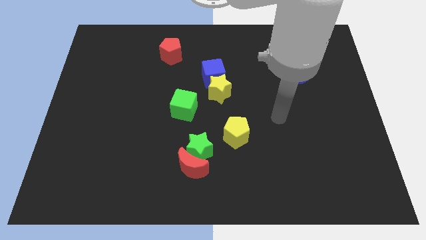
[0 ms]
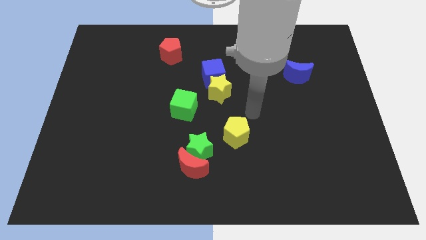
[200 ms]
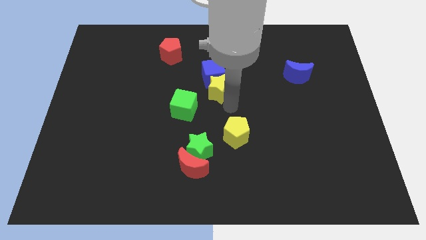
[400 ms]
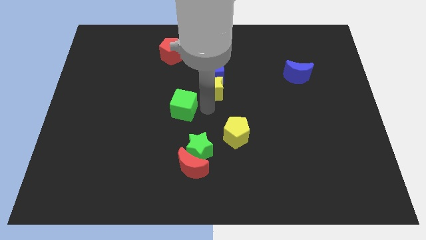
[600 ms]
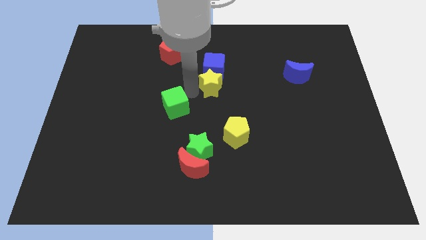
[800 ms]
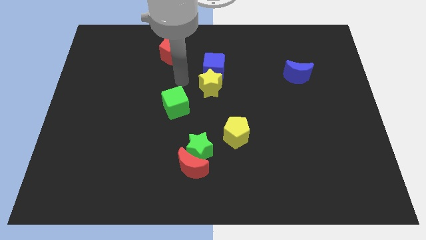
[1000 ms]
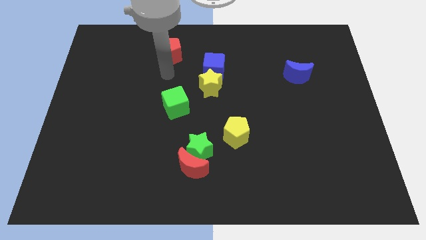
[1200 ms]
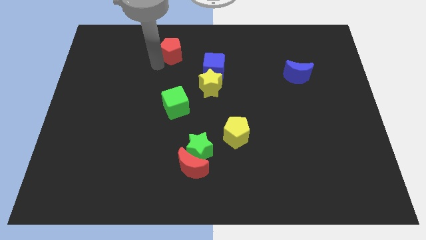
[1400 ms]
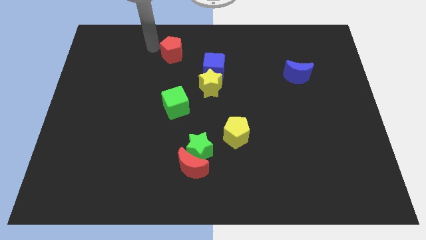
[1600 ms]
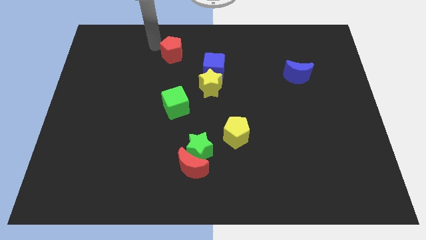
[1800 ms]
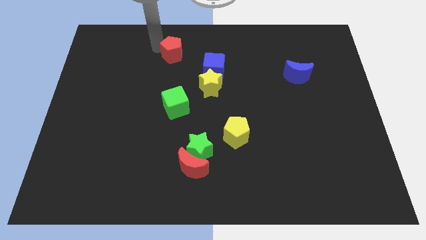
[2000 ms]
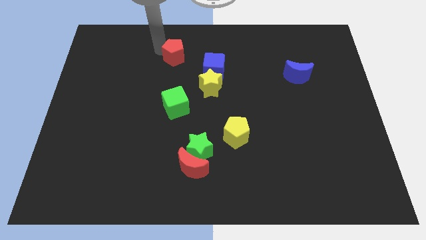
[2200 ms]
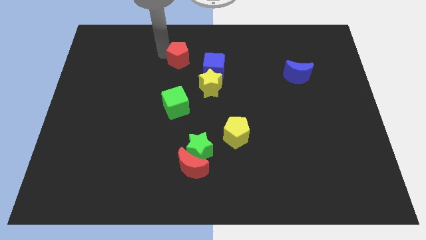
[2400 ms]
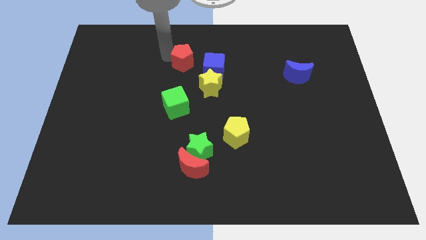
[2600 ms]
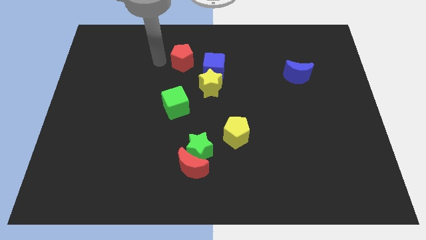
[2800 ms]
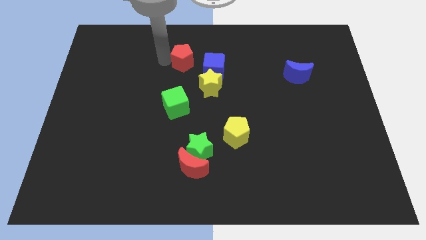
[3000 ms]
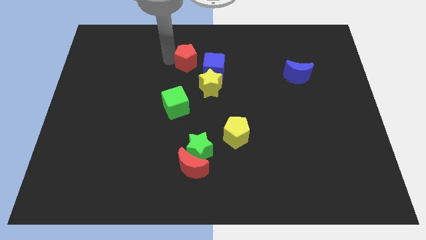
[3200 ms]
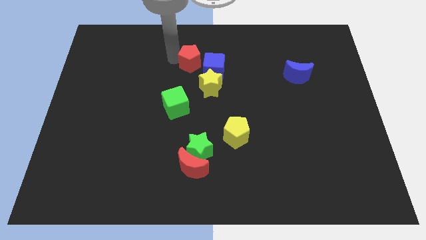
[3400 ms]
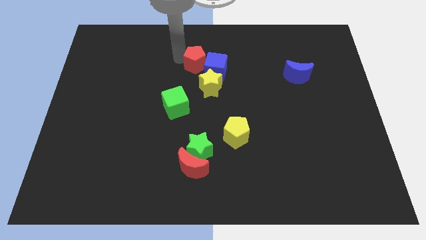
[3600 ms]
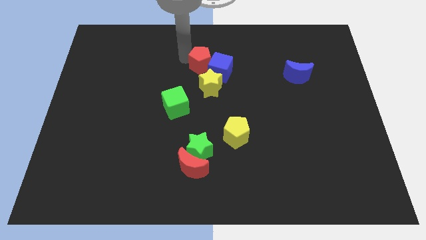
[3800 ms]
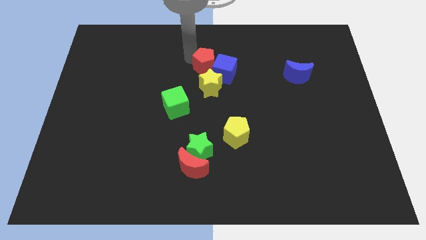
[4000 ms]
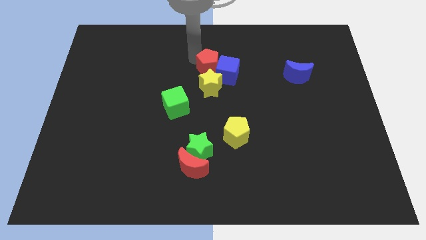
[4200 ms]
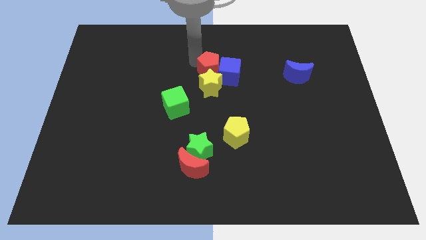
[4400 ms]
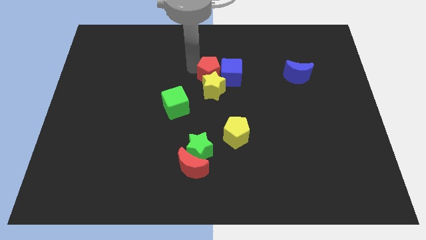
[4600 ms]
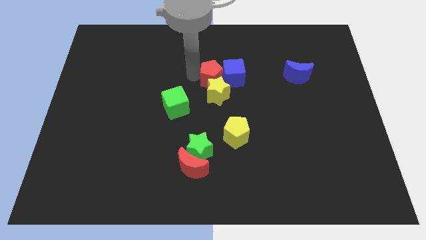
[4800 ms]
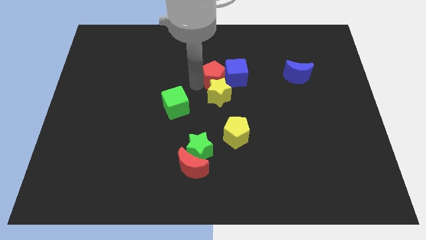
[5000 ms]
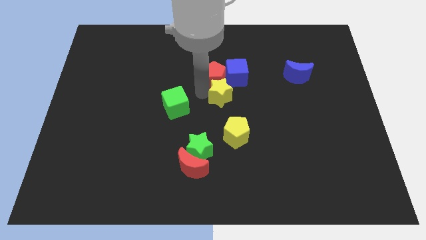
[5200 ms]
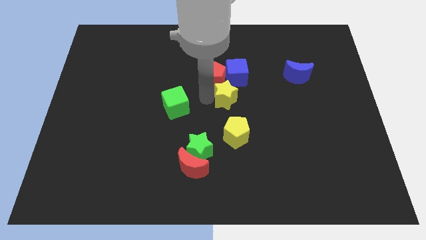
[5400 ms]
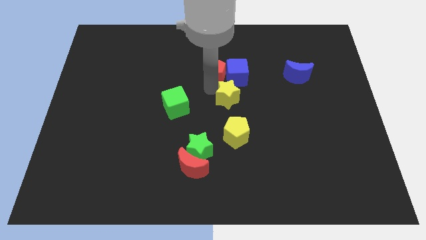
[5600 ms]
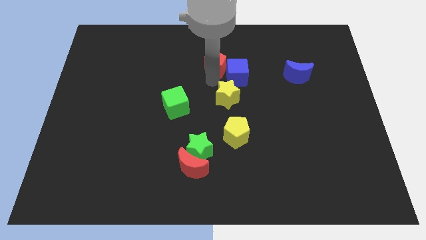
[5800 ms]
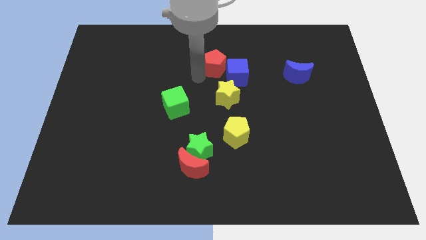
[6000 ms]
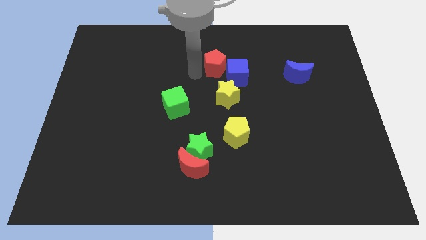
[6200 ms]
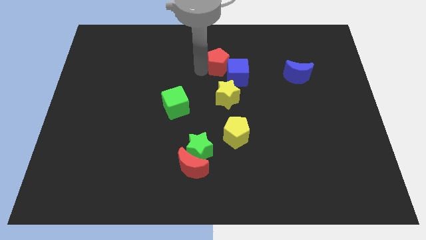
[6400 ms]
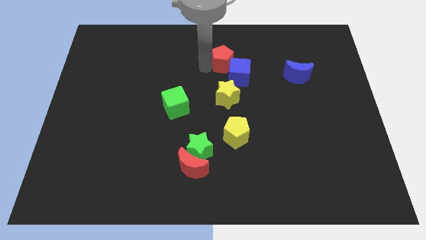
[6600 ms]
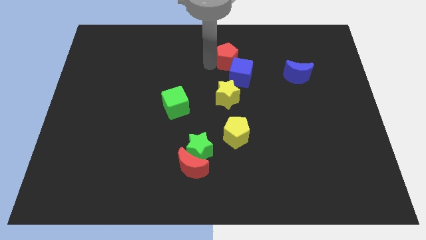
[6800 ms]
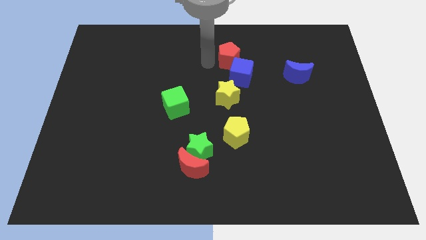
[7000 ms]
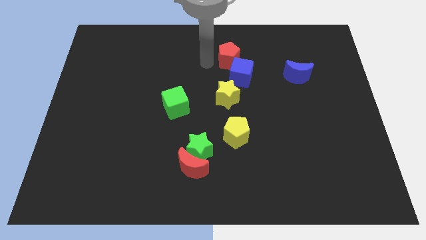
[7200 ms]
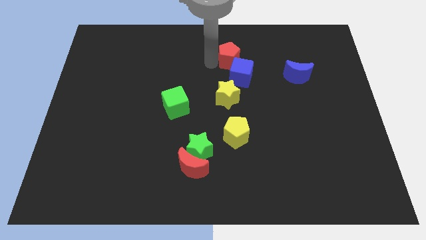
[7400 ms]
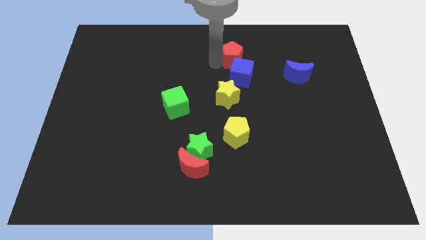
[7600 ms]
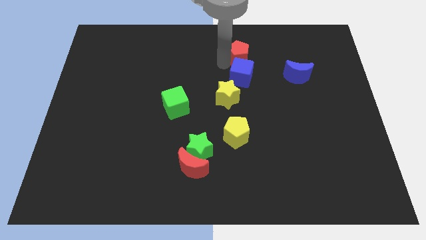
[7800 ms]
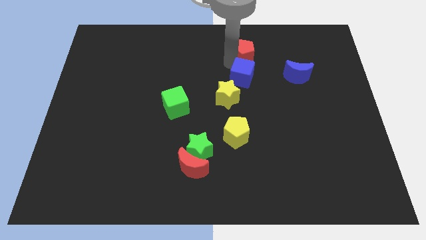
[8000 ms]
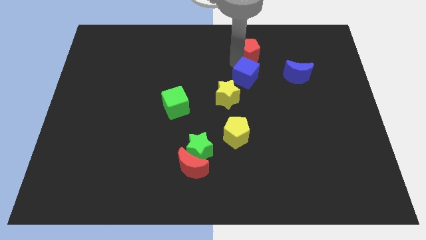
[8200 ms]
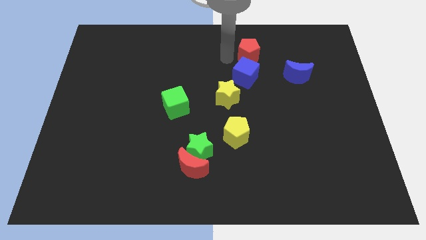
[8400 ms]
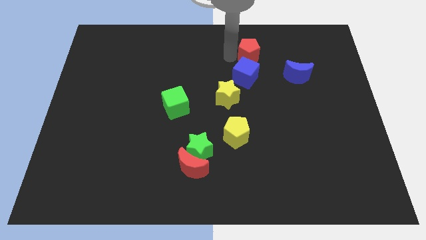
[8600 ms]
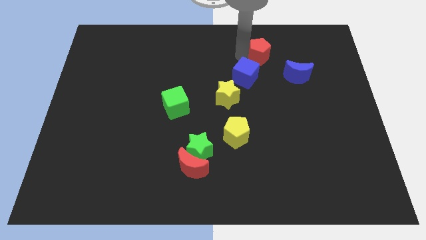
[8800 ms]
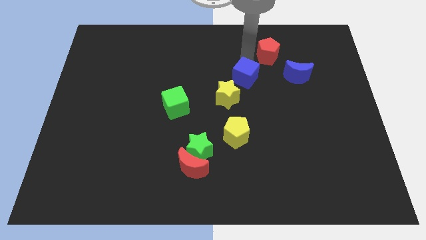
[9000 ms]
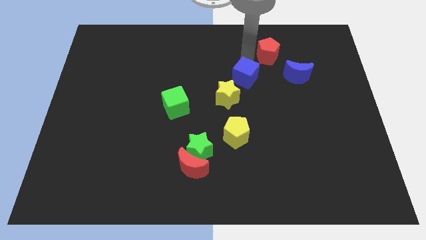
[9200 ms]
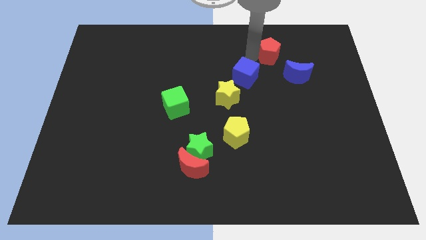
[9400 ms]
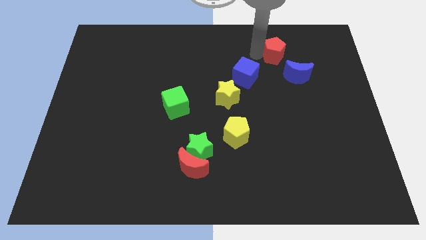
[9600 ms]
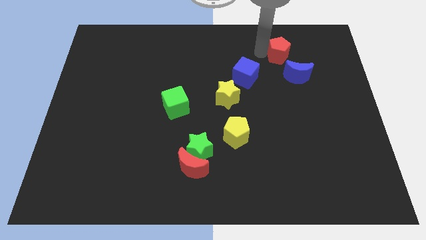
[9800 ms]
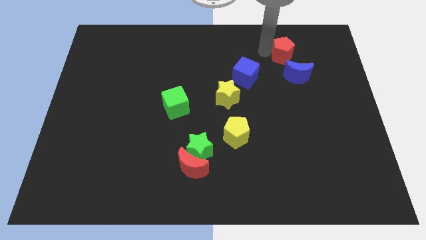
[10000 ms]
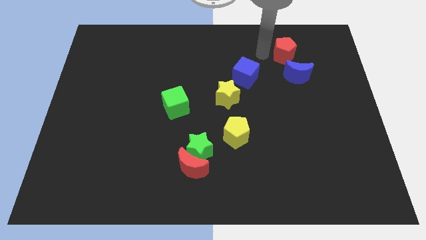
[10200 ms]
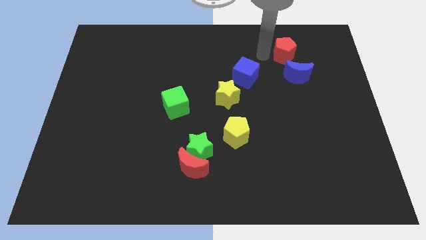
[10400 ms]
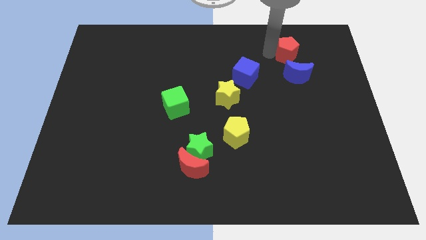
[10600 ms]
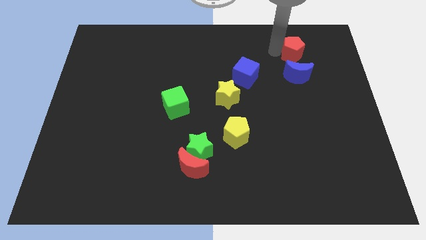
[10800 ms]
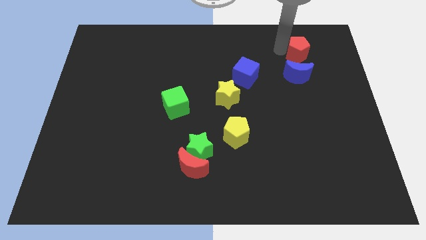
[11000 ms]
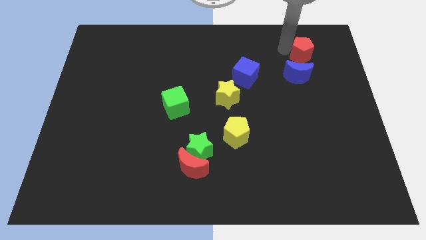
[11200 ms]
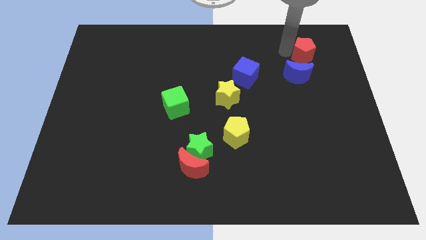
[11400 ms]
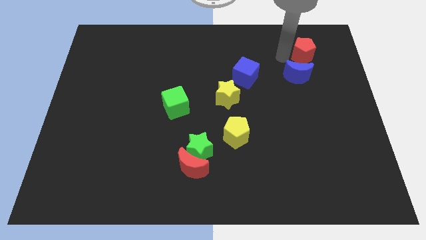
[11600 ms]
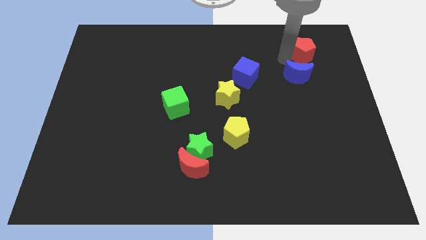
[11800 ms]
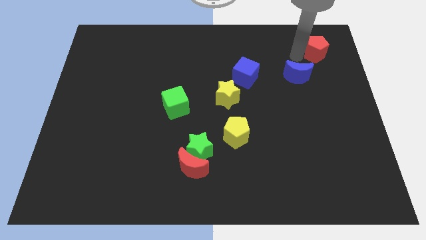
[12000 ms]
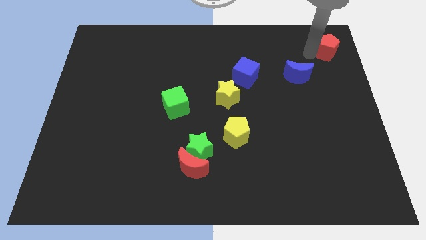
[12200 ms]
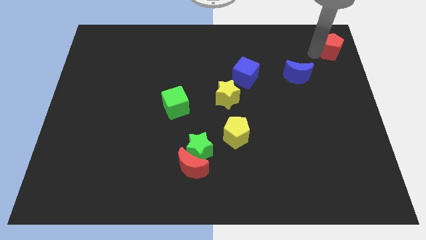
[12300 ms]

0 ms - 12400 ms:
move the red pentagon to the top right corner
